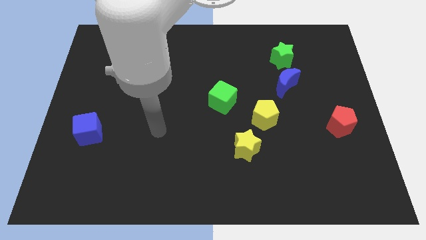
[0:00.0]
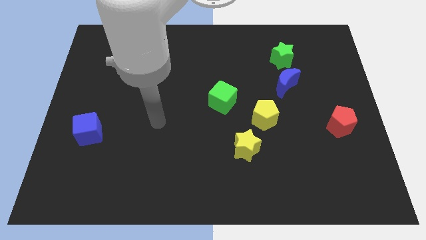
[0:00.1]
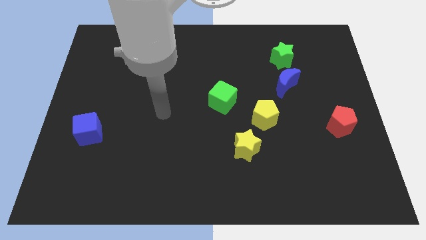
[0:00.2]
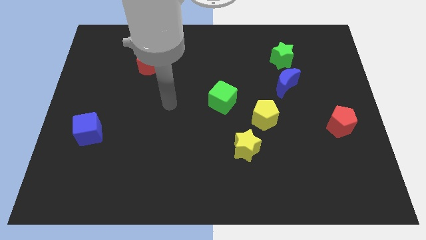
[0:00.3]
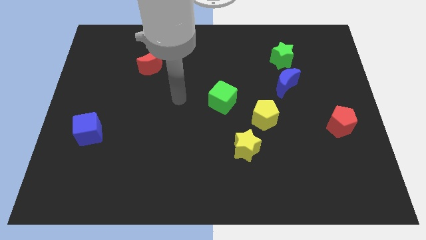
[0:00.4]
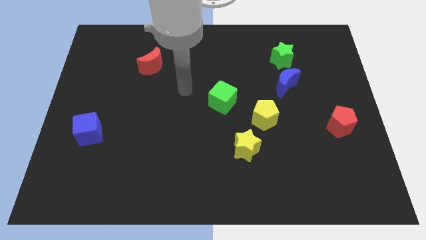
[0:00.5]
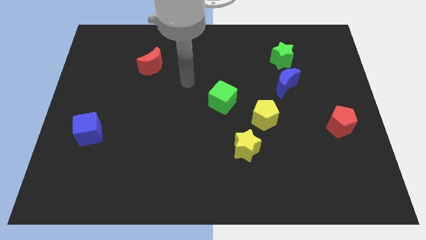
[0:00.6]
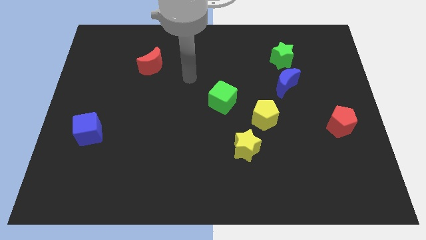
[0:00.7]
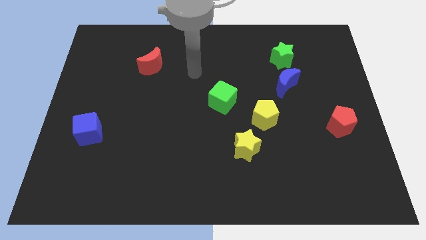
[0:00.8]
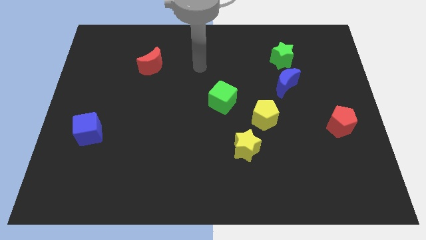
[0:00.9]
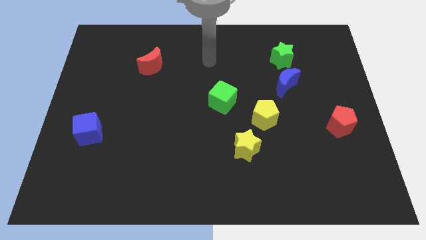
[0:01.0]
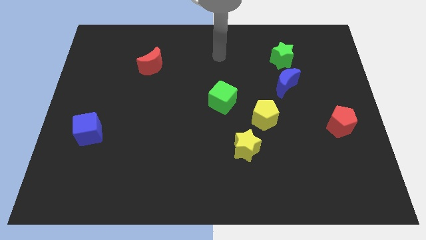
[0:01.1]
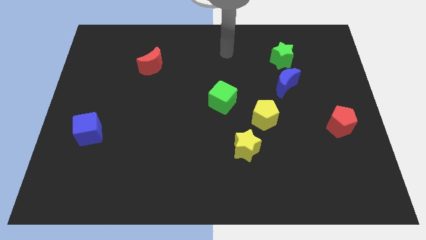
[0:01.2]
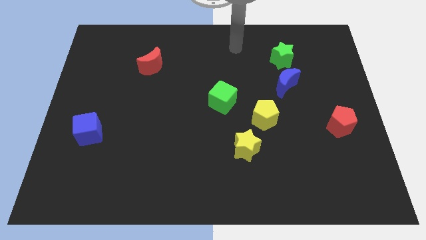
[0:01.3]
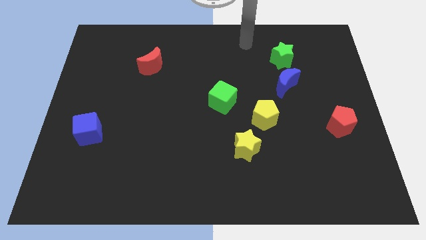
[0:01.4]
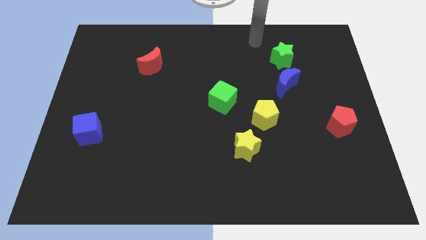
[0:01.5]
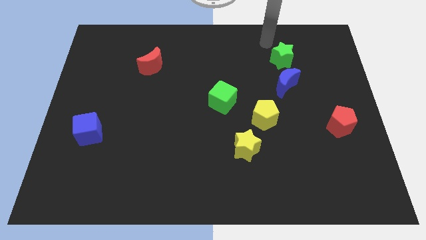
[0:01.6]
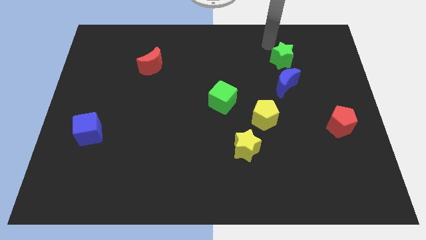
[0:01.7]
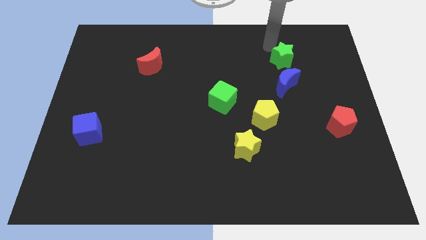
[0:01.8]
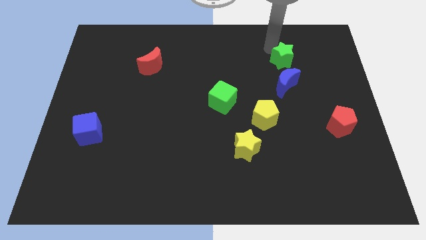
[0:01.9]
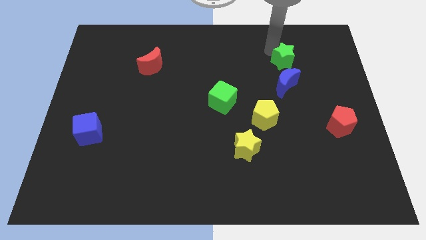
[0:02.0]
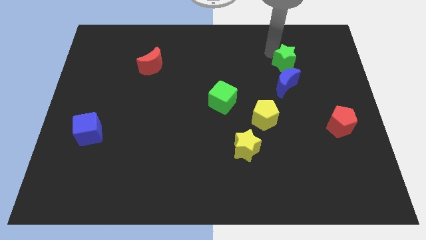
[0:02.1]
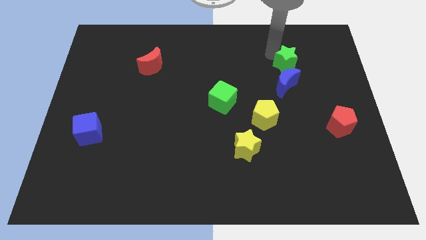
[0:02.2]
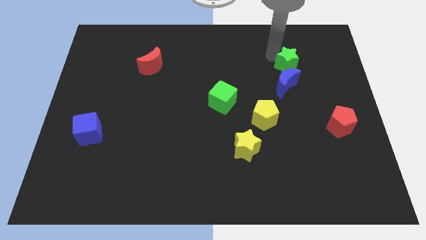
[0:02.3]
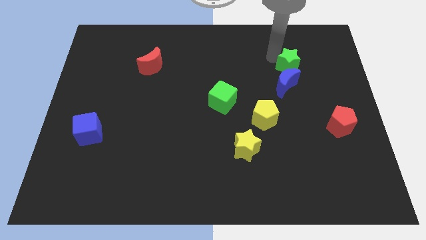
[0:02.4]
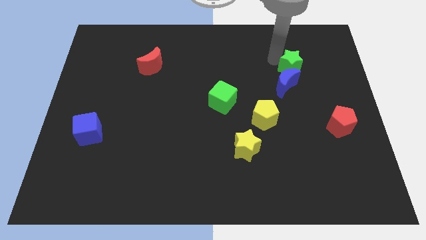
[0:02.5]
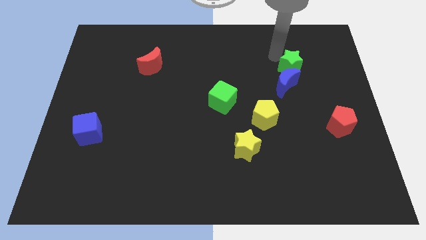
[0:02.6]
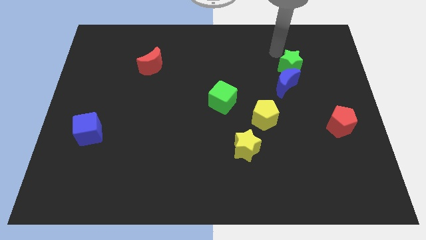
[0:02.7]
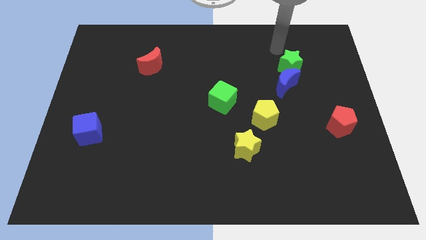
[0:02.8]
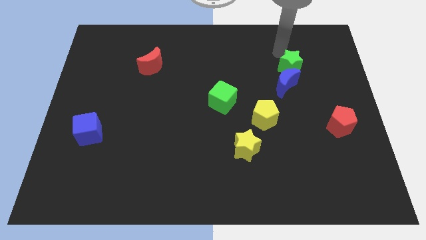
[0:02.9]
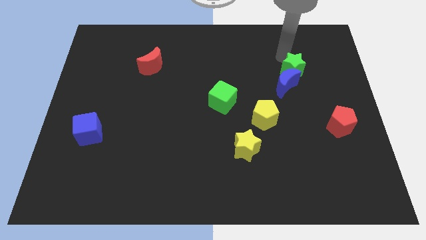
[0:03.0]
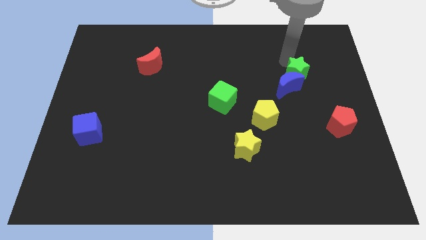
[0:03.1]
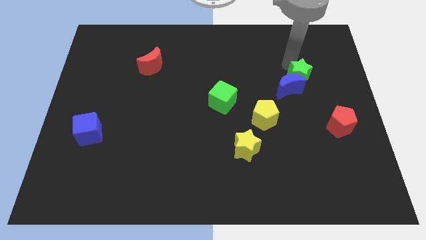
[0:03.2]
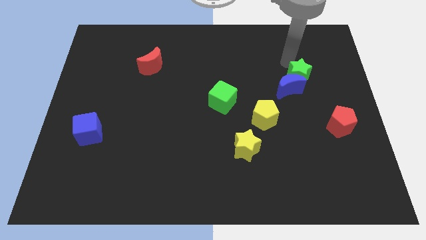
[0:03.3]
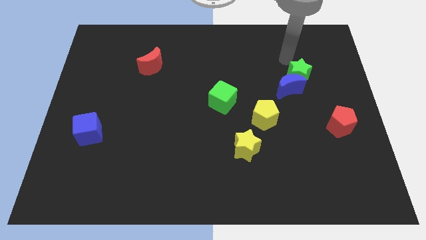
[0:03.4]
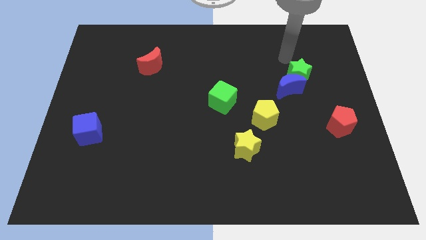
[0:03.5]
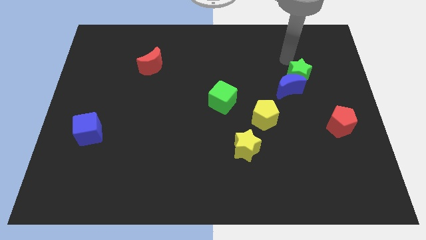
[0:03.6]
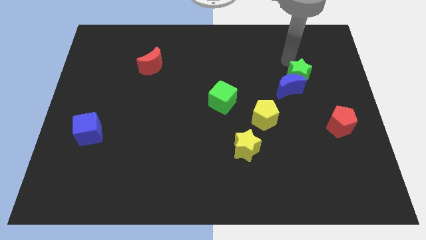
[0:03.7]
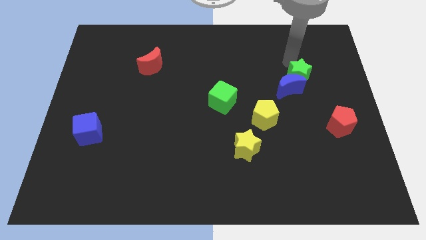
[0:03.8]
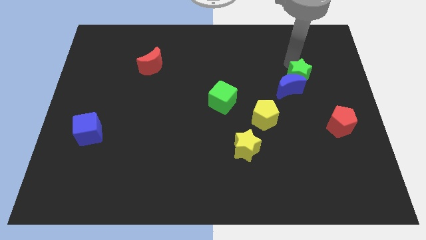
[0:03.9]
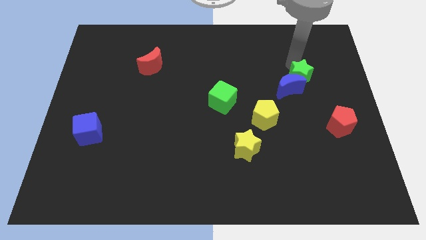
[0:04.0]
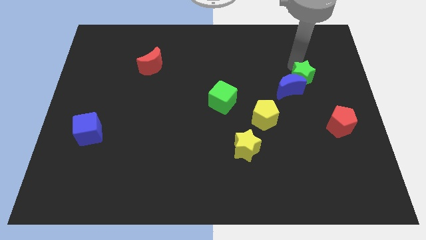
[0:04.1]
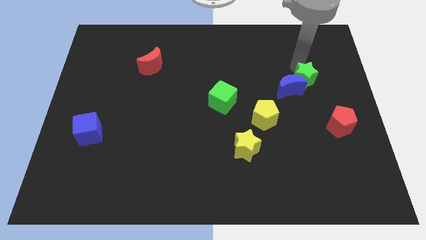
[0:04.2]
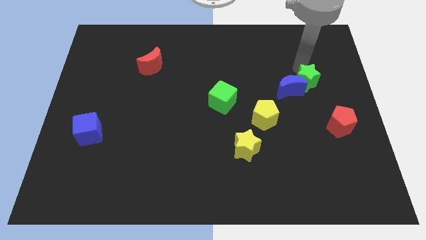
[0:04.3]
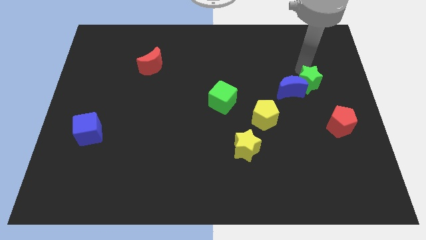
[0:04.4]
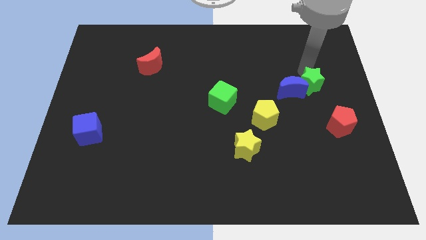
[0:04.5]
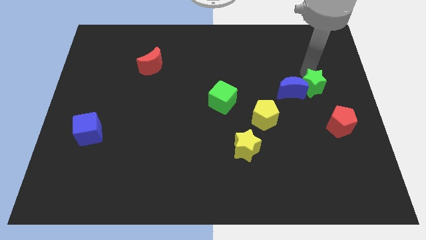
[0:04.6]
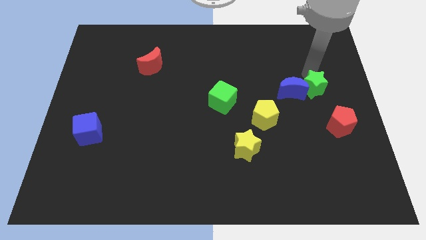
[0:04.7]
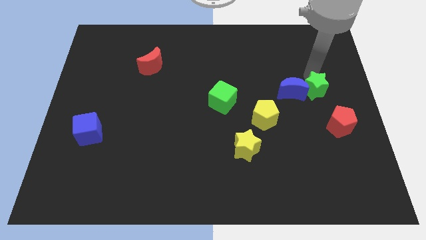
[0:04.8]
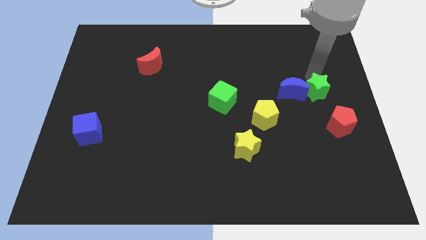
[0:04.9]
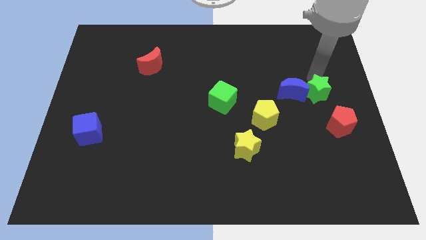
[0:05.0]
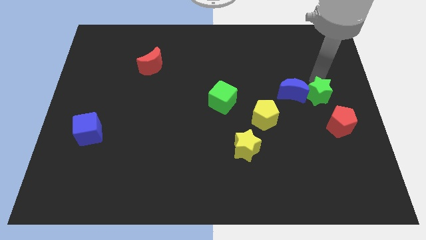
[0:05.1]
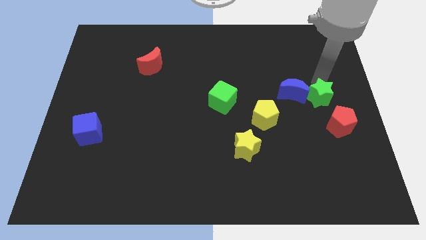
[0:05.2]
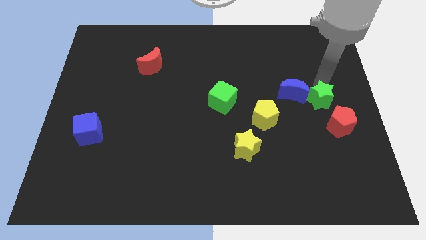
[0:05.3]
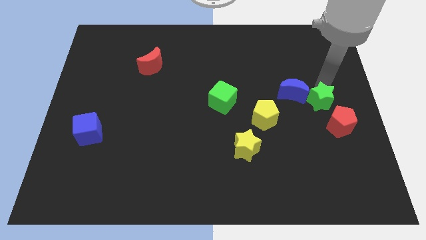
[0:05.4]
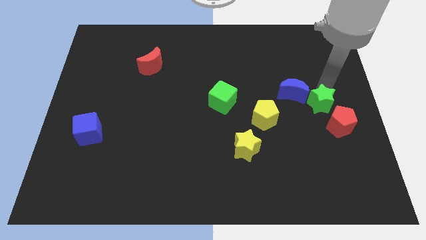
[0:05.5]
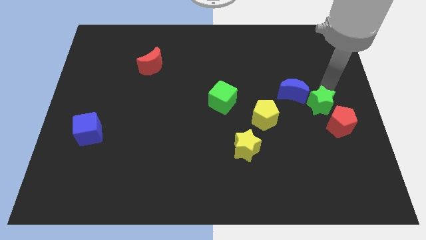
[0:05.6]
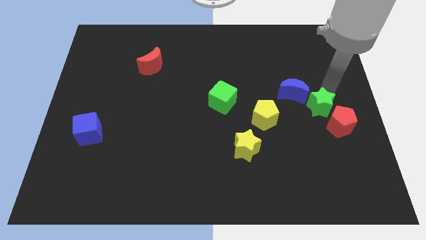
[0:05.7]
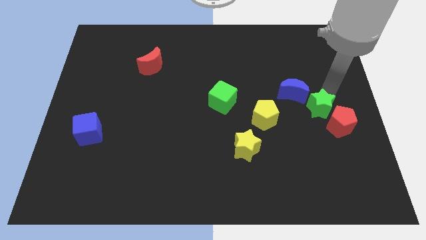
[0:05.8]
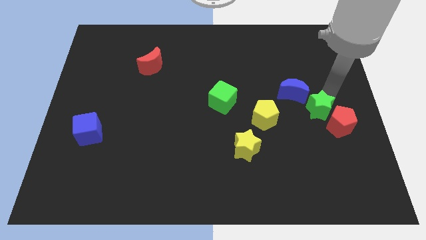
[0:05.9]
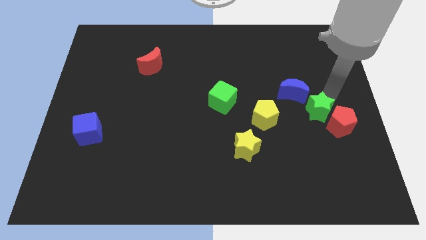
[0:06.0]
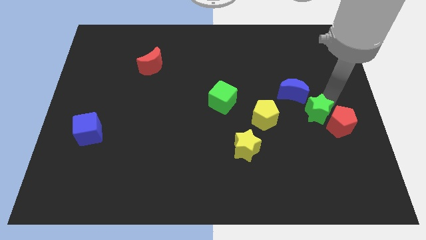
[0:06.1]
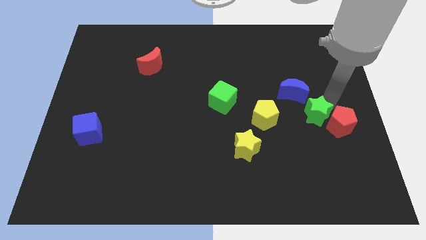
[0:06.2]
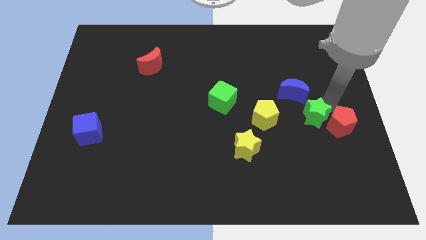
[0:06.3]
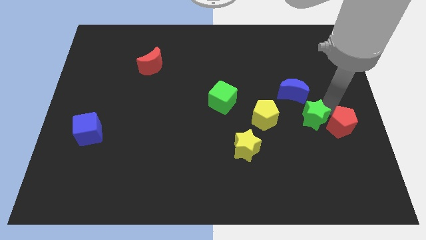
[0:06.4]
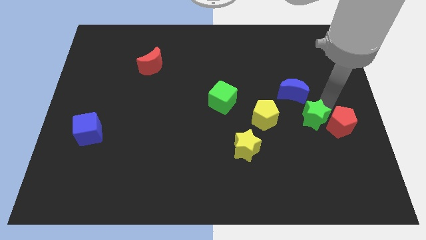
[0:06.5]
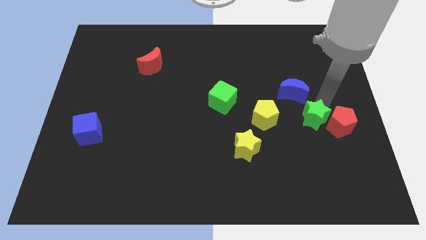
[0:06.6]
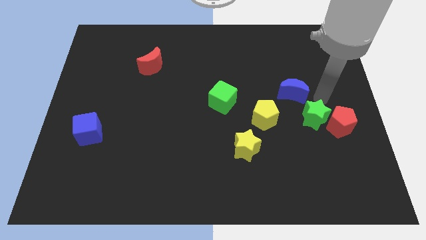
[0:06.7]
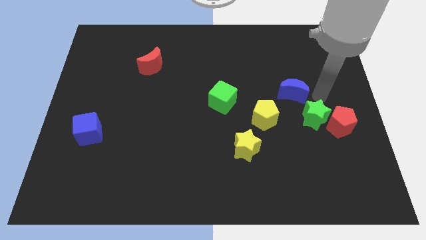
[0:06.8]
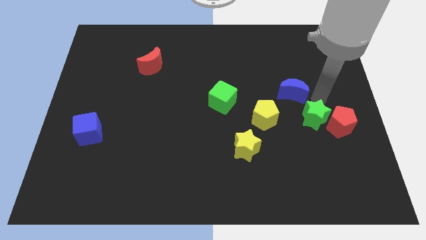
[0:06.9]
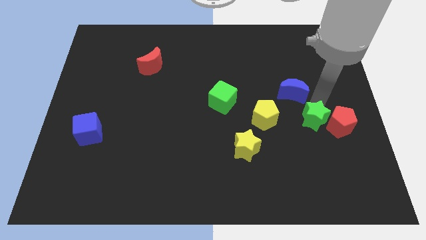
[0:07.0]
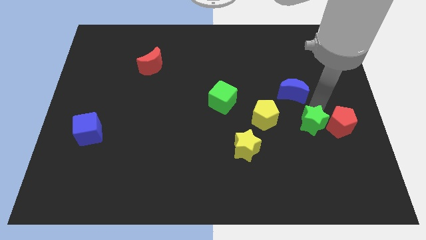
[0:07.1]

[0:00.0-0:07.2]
push the green star downwards

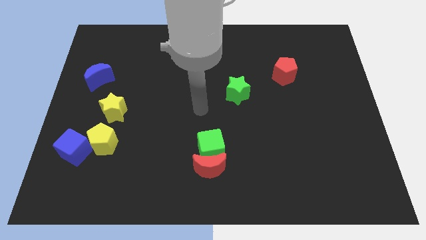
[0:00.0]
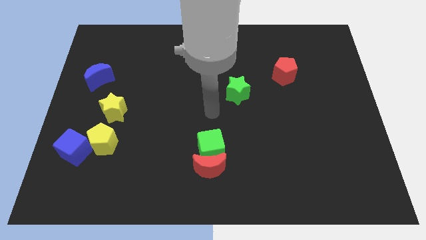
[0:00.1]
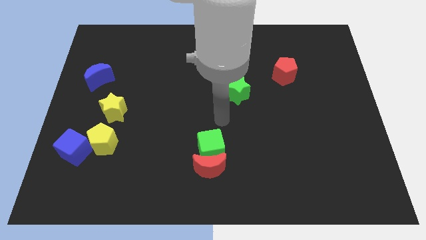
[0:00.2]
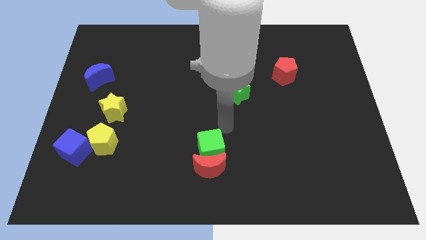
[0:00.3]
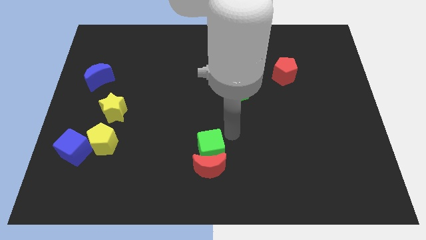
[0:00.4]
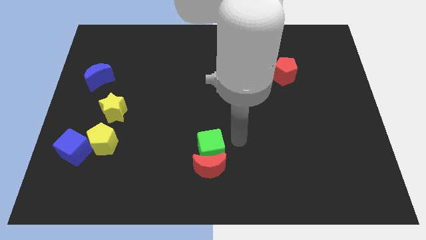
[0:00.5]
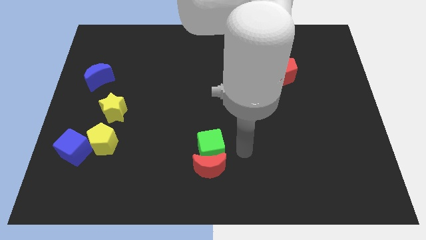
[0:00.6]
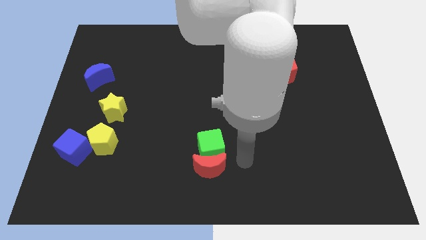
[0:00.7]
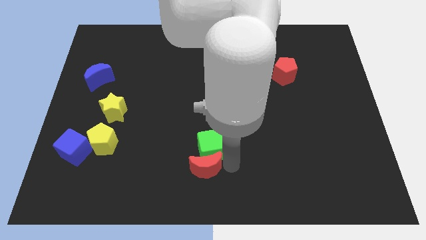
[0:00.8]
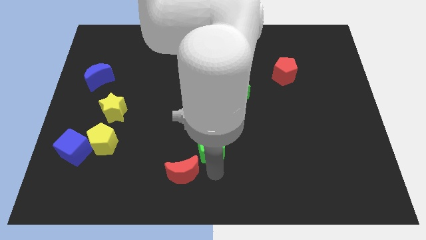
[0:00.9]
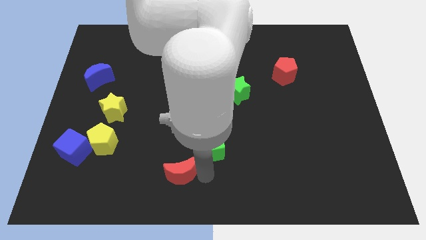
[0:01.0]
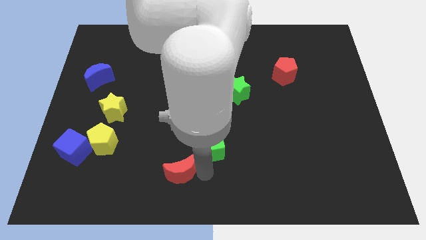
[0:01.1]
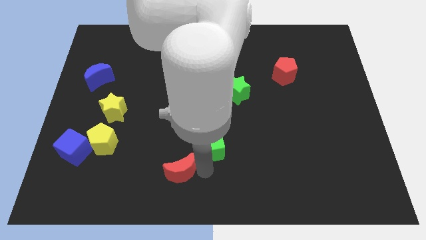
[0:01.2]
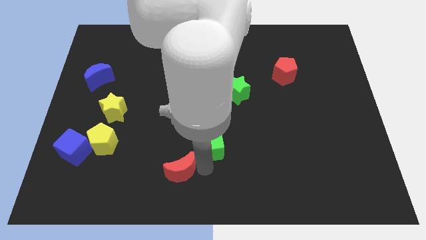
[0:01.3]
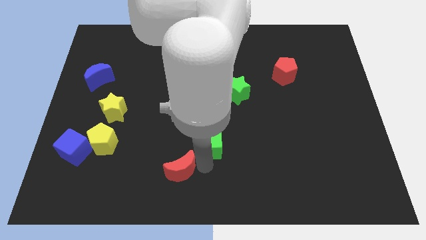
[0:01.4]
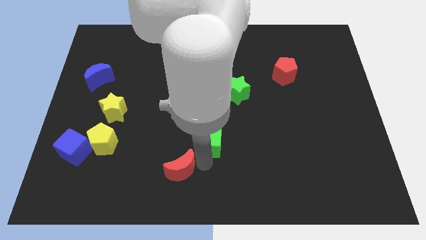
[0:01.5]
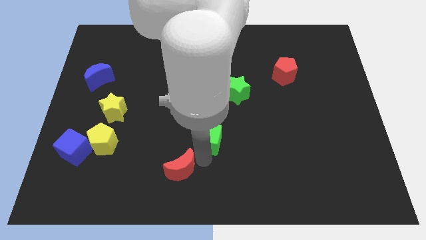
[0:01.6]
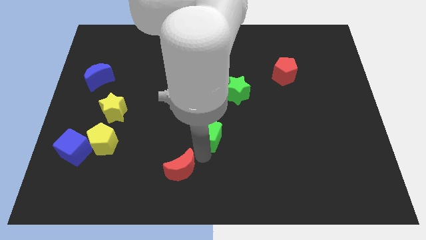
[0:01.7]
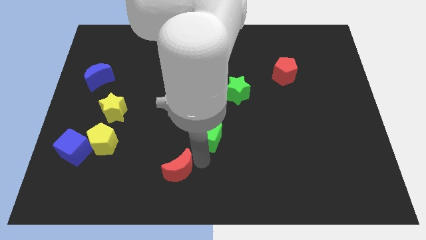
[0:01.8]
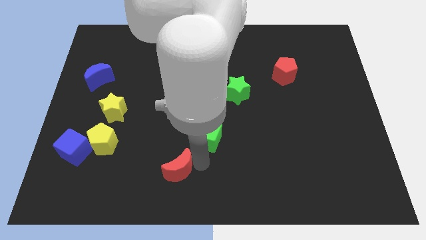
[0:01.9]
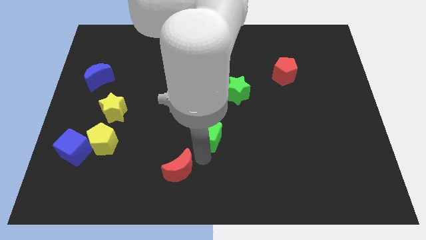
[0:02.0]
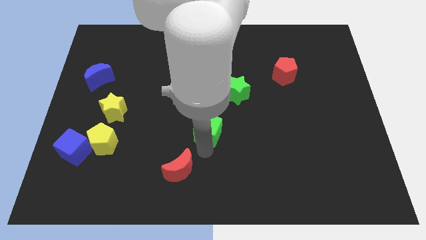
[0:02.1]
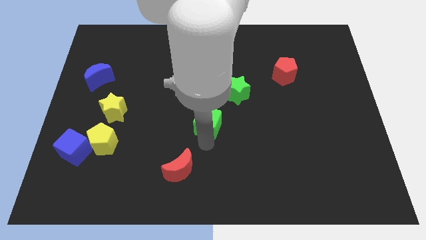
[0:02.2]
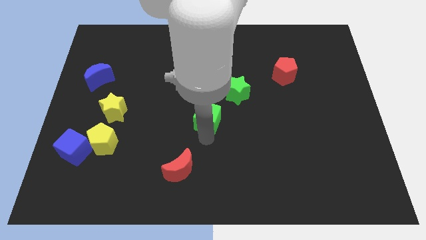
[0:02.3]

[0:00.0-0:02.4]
slightly slide the green cube upwards
